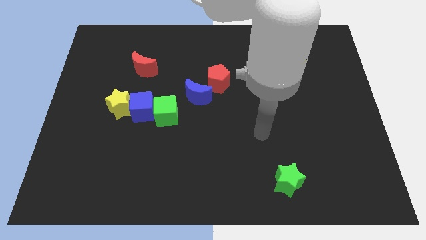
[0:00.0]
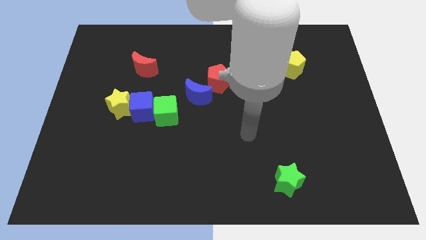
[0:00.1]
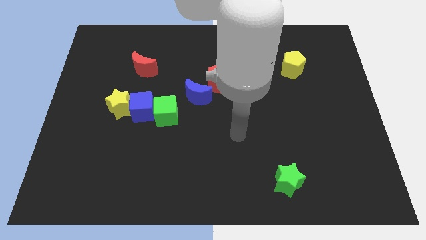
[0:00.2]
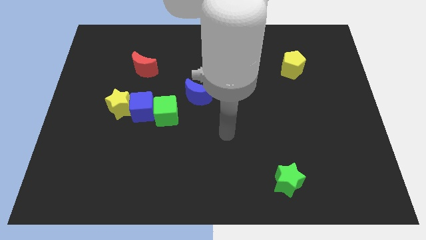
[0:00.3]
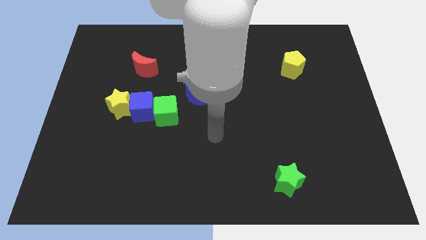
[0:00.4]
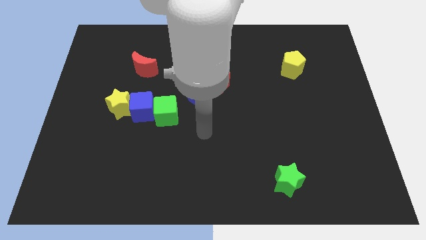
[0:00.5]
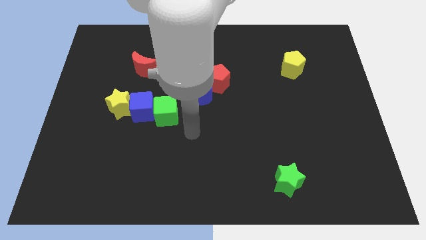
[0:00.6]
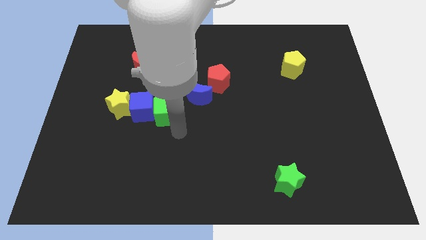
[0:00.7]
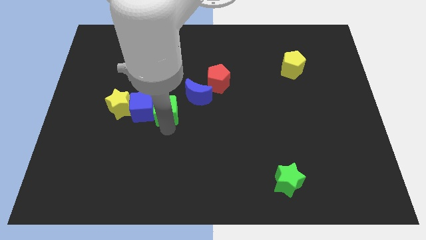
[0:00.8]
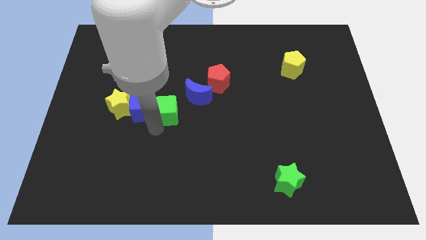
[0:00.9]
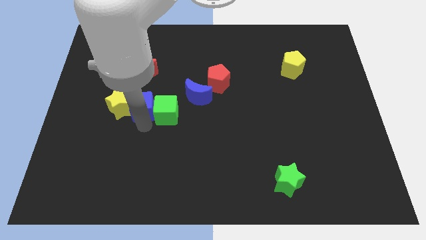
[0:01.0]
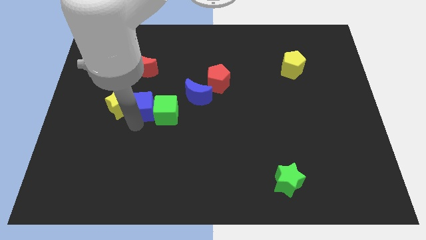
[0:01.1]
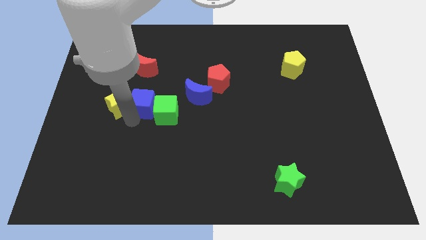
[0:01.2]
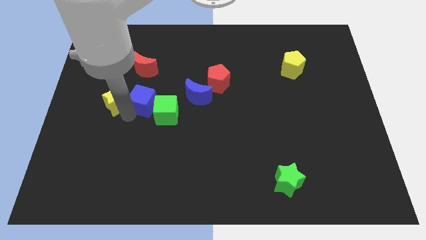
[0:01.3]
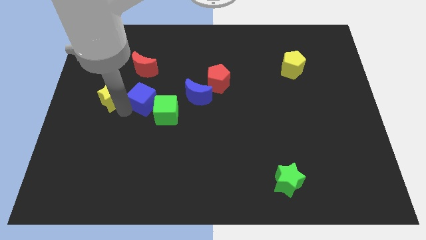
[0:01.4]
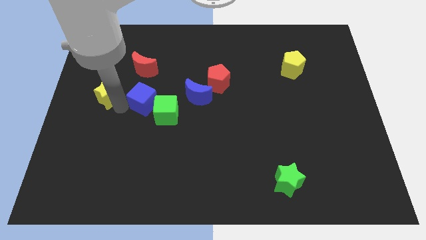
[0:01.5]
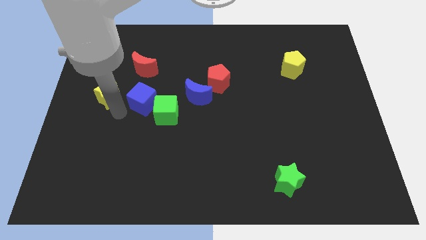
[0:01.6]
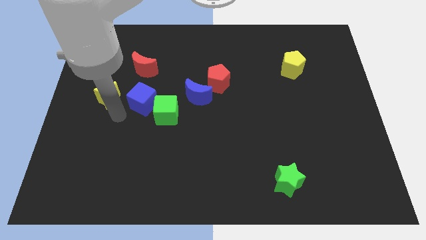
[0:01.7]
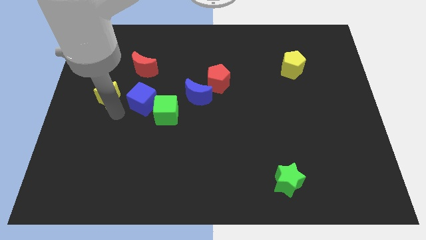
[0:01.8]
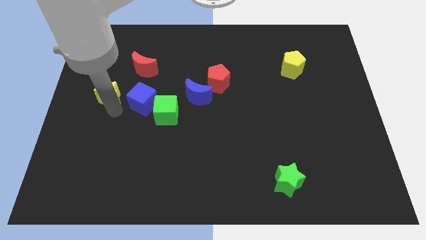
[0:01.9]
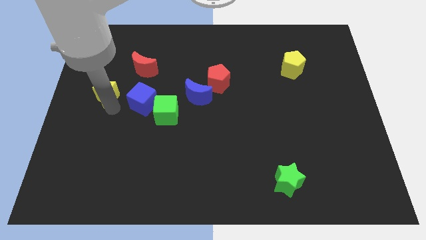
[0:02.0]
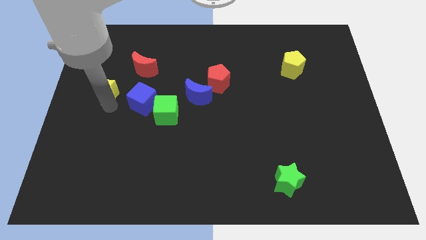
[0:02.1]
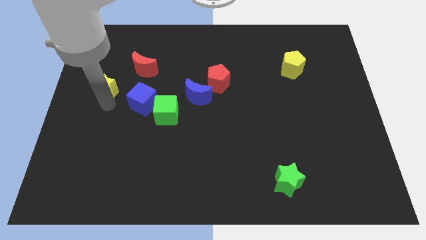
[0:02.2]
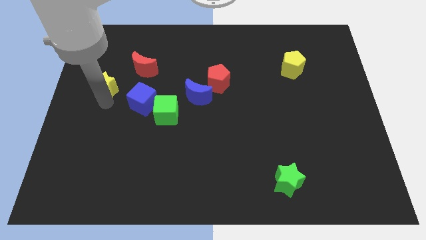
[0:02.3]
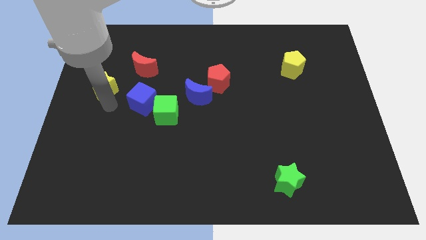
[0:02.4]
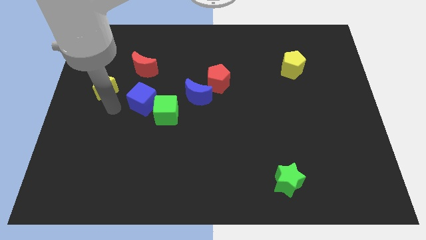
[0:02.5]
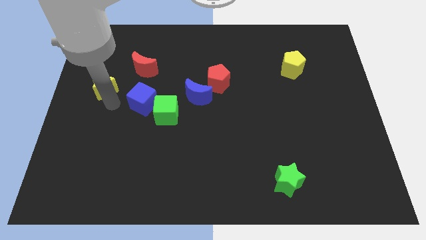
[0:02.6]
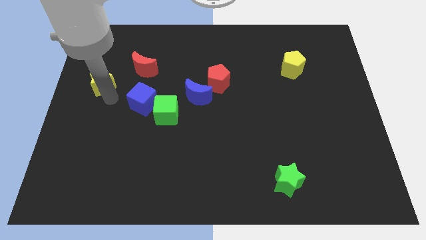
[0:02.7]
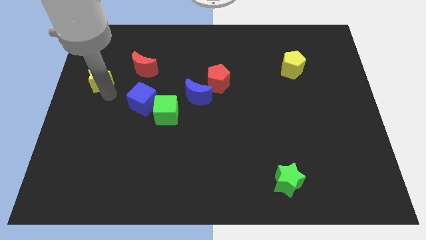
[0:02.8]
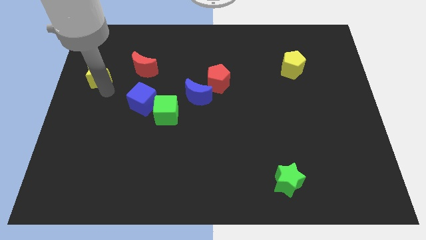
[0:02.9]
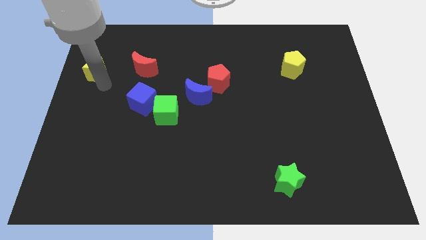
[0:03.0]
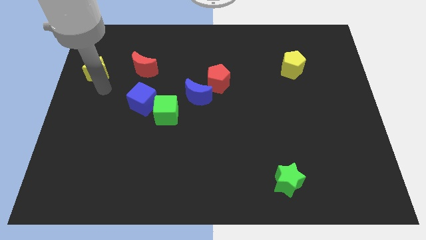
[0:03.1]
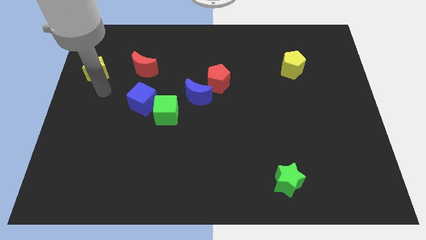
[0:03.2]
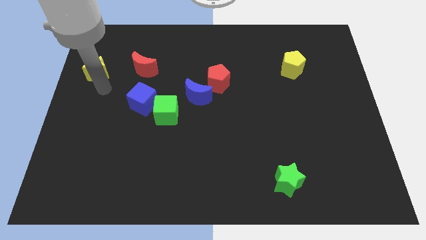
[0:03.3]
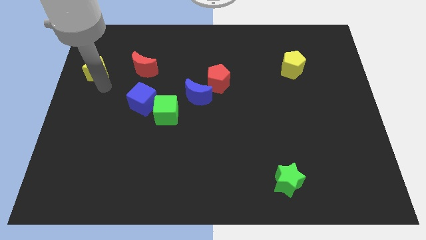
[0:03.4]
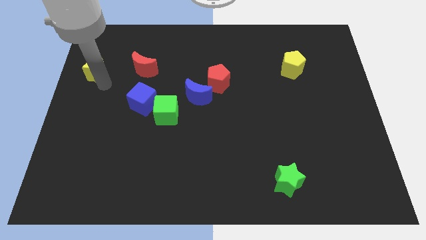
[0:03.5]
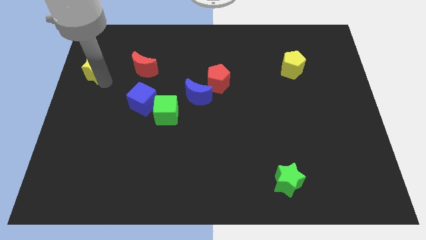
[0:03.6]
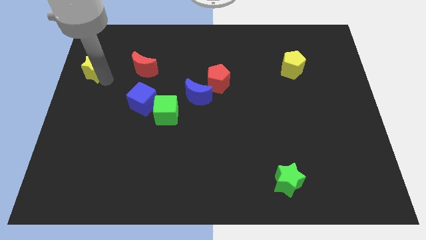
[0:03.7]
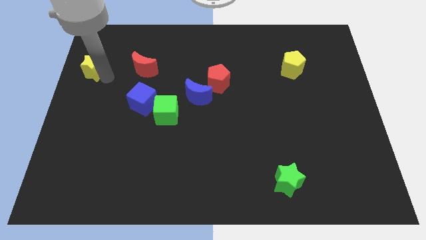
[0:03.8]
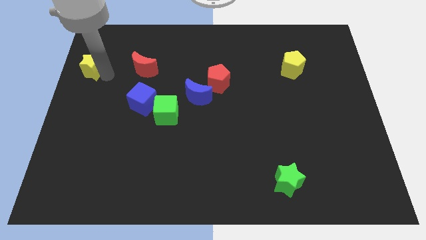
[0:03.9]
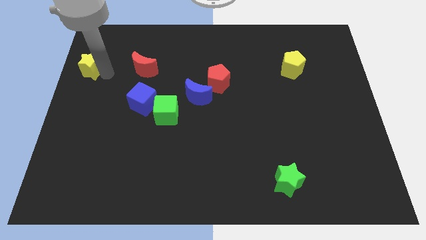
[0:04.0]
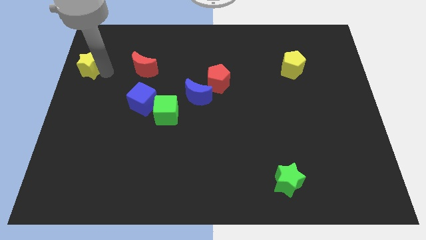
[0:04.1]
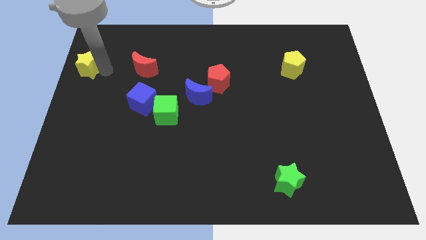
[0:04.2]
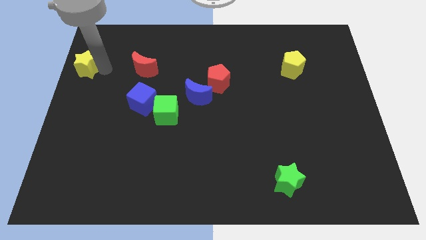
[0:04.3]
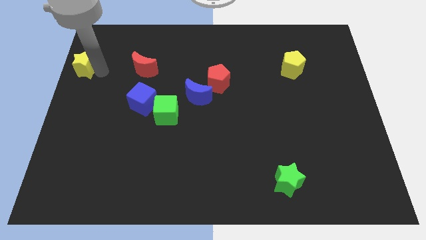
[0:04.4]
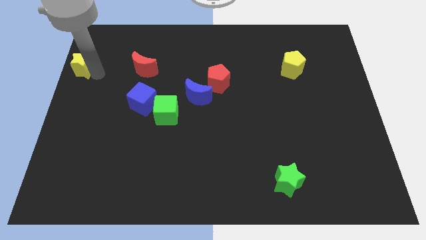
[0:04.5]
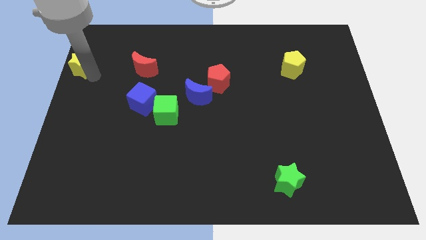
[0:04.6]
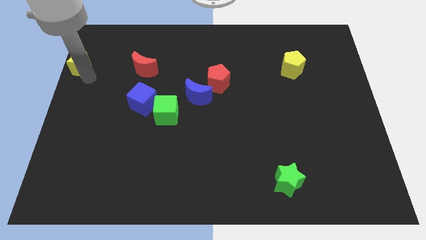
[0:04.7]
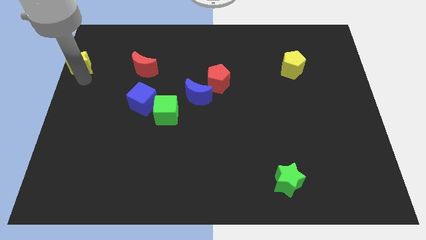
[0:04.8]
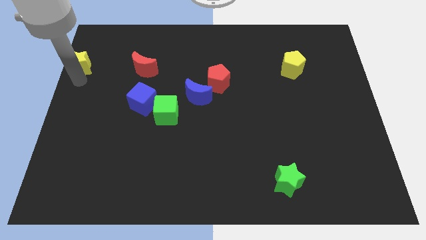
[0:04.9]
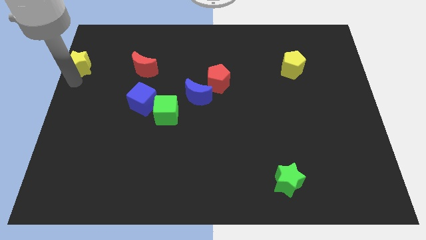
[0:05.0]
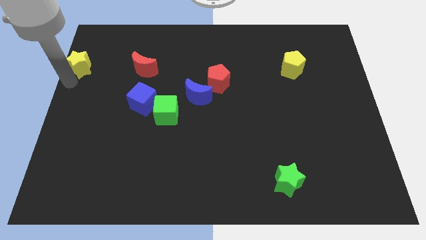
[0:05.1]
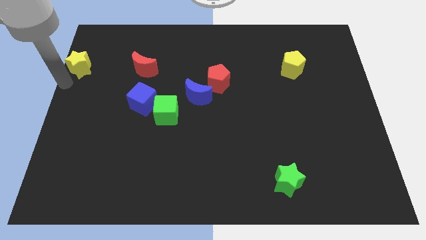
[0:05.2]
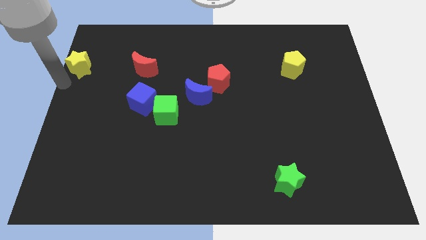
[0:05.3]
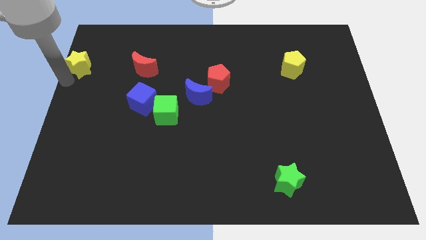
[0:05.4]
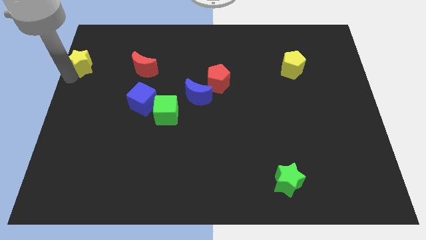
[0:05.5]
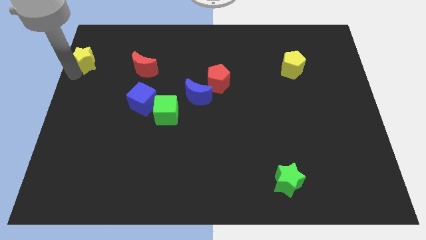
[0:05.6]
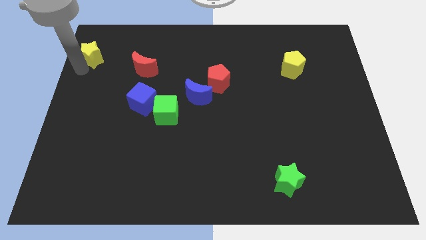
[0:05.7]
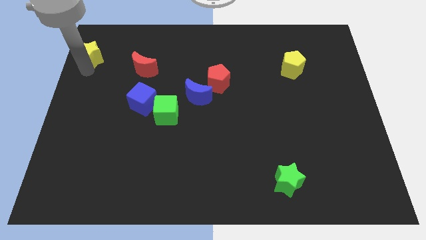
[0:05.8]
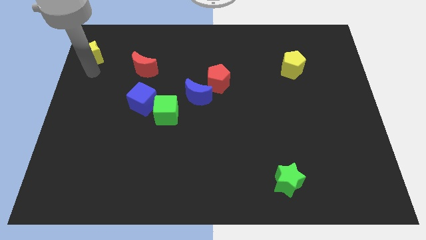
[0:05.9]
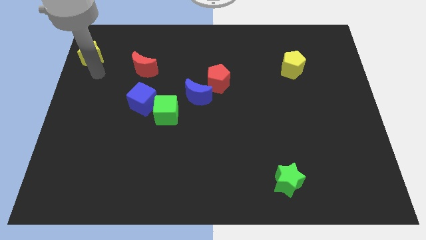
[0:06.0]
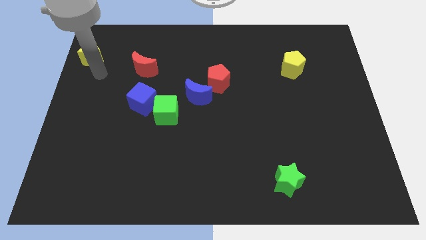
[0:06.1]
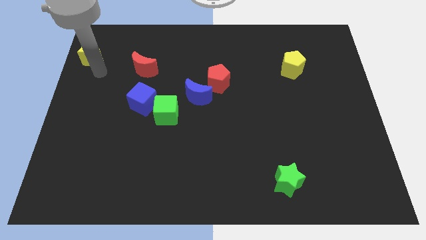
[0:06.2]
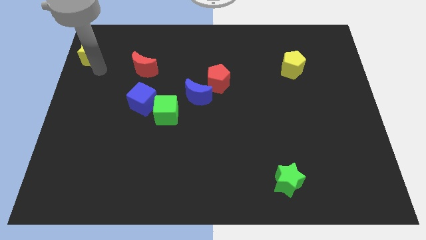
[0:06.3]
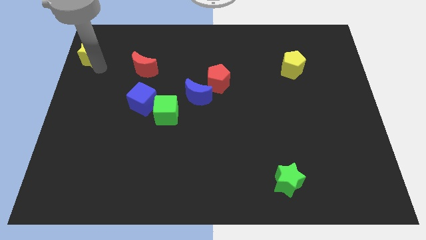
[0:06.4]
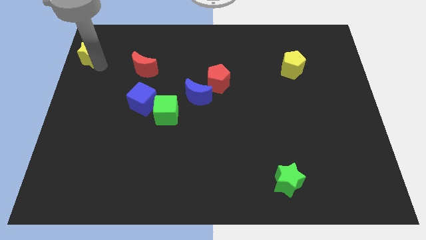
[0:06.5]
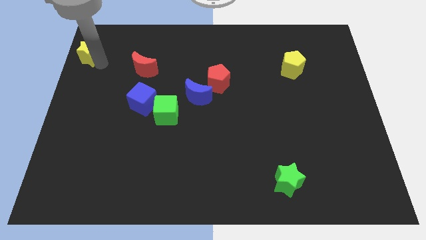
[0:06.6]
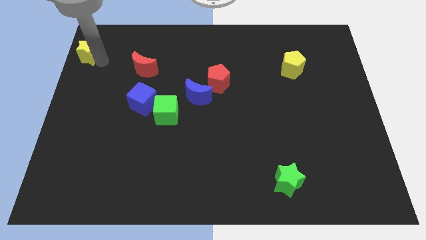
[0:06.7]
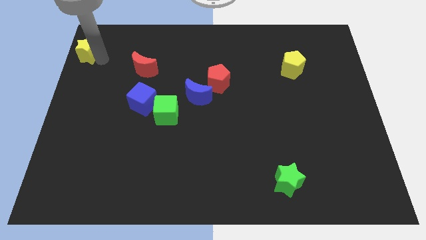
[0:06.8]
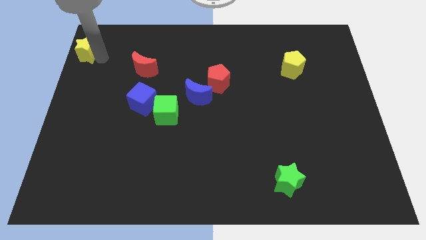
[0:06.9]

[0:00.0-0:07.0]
put the yellow star to the top left

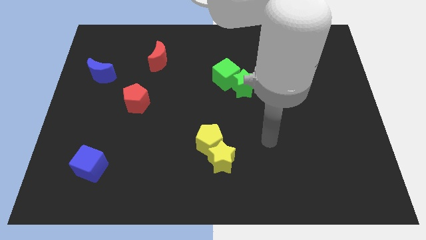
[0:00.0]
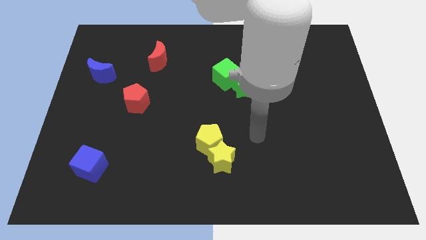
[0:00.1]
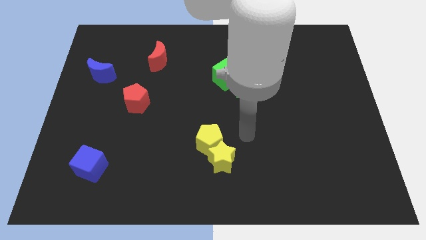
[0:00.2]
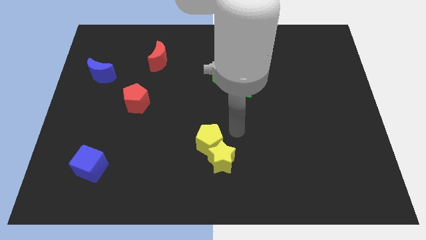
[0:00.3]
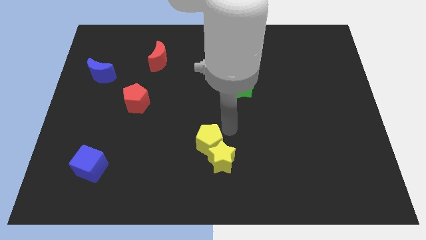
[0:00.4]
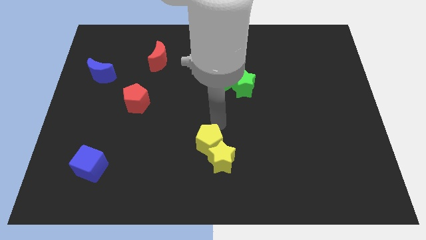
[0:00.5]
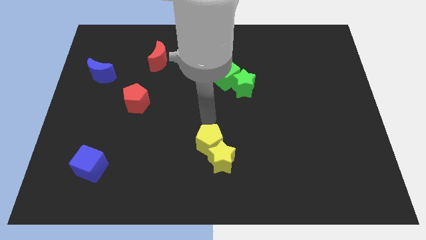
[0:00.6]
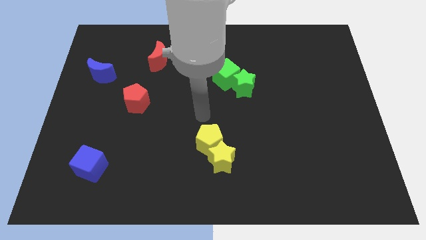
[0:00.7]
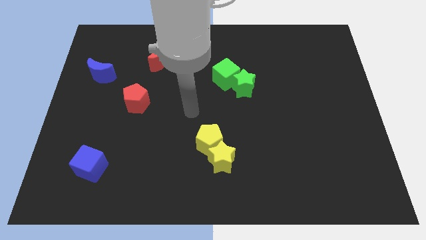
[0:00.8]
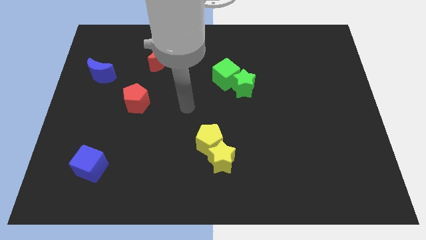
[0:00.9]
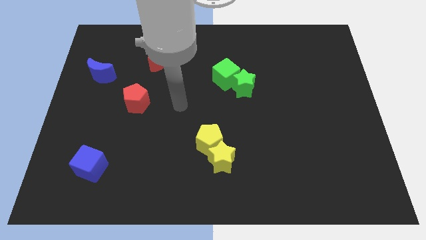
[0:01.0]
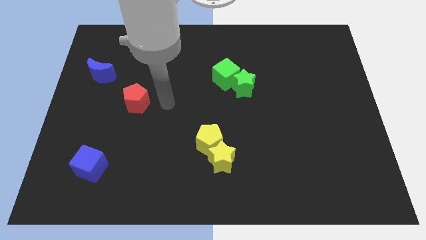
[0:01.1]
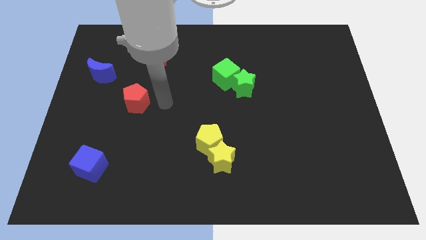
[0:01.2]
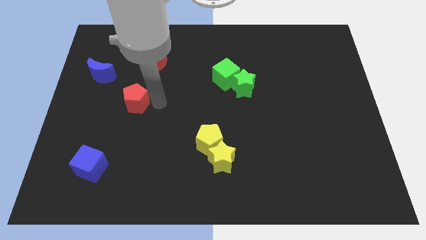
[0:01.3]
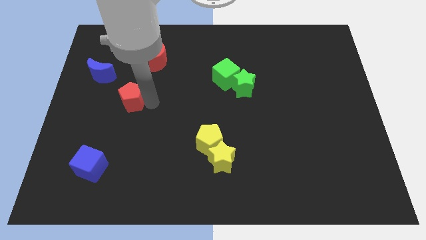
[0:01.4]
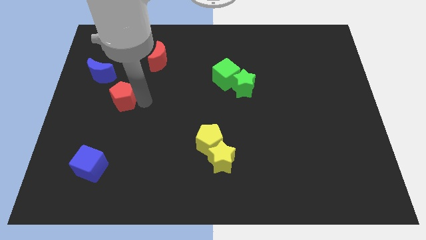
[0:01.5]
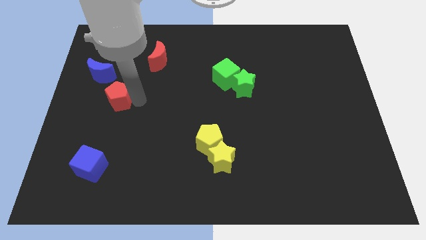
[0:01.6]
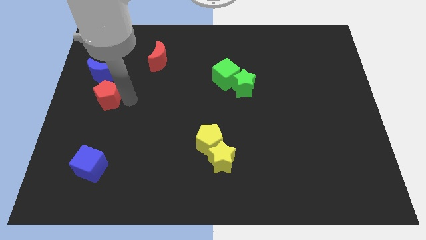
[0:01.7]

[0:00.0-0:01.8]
put the red pentagon to the center left
